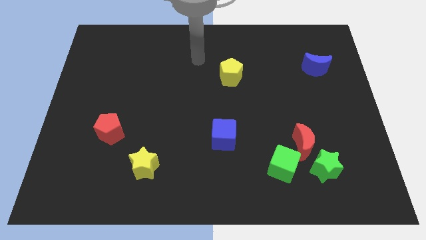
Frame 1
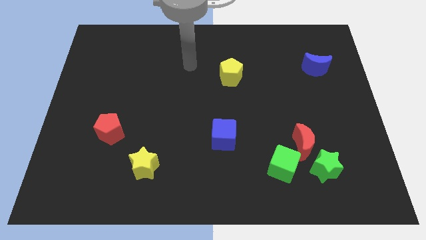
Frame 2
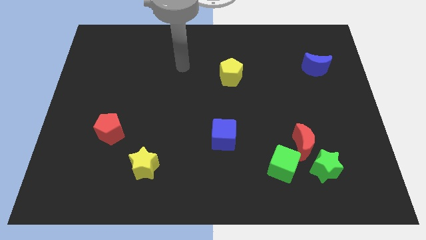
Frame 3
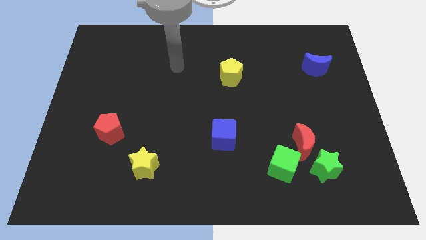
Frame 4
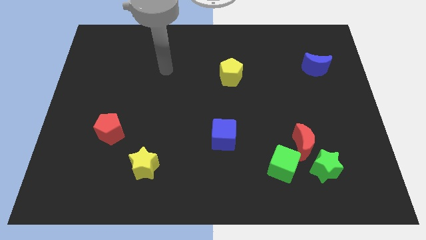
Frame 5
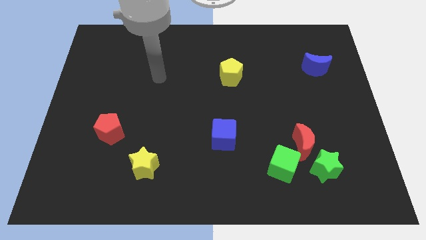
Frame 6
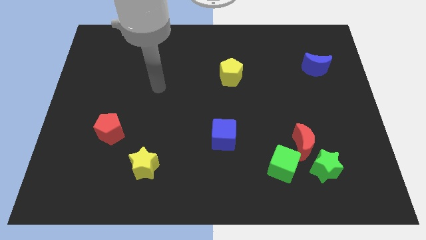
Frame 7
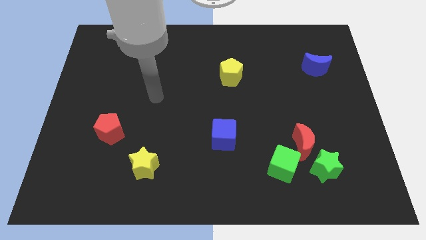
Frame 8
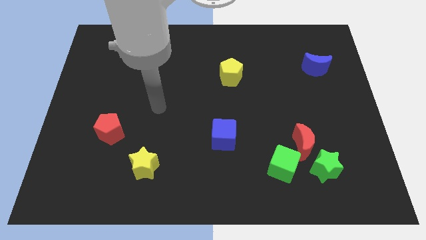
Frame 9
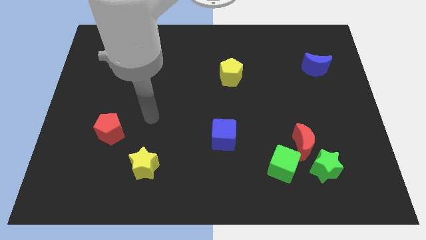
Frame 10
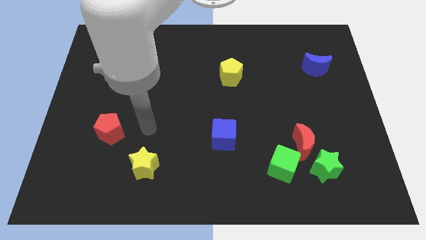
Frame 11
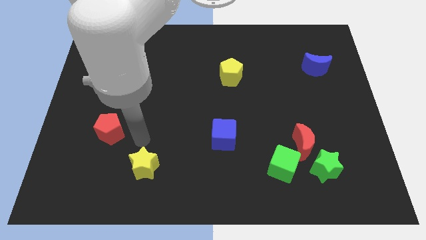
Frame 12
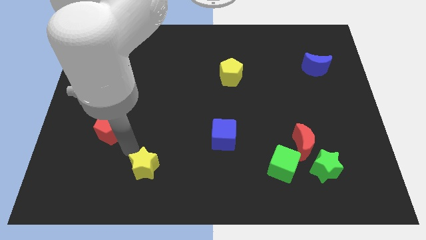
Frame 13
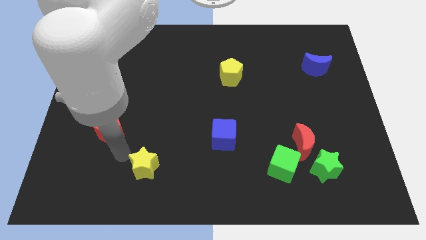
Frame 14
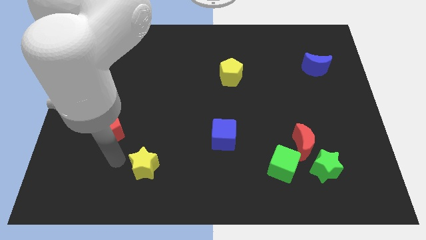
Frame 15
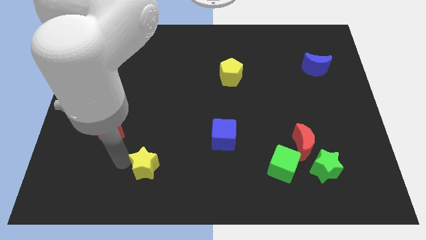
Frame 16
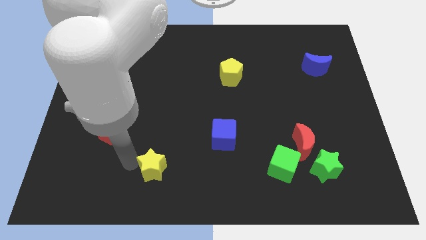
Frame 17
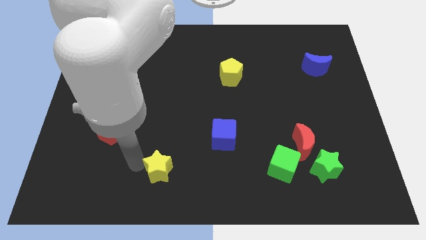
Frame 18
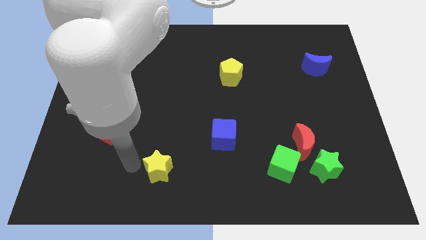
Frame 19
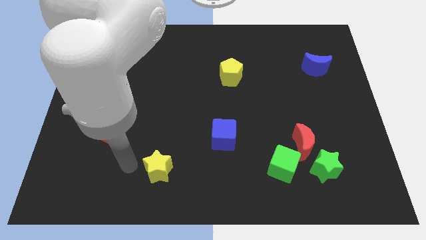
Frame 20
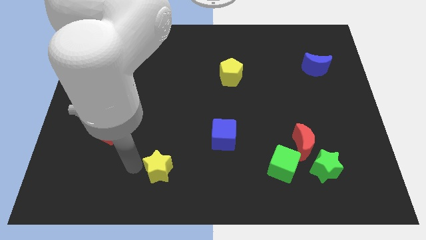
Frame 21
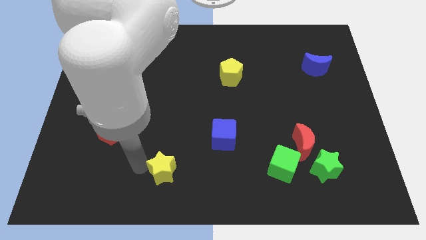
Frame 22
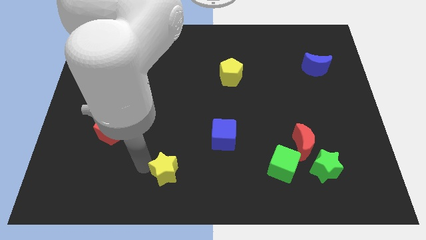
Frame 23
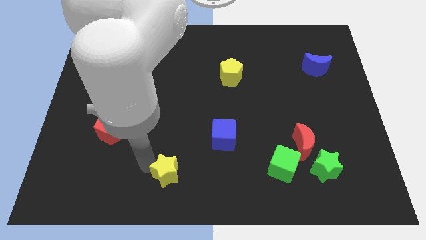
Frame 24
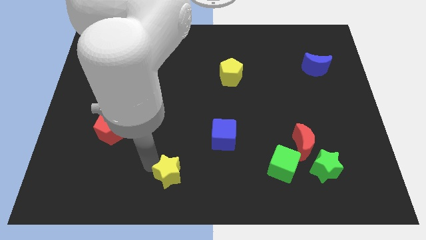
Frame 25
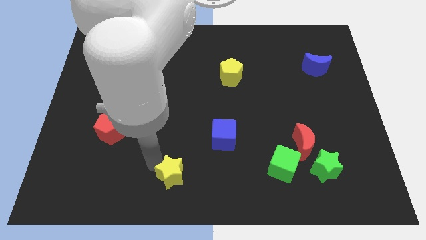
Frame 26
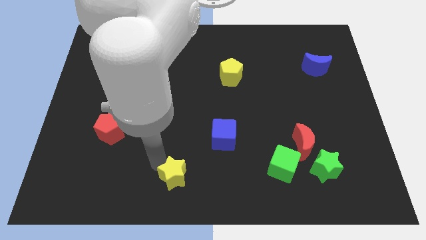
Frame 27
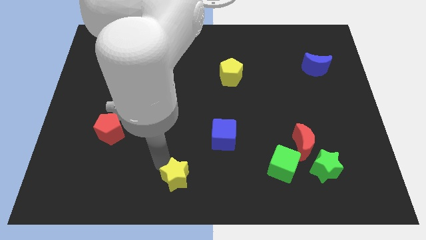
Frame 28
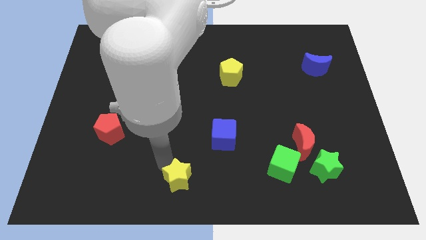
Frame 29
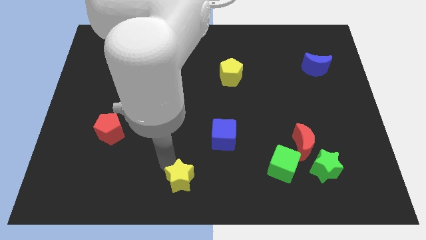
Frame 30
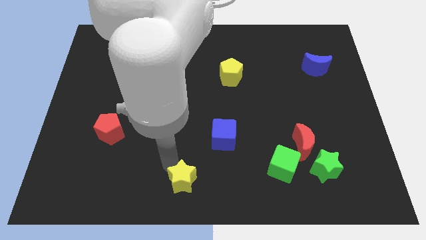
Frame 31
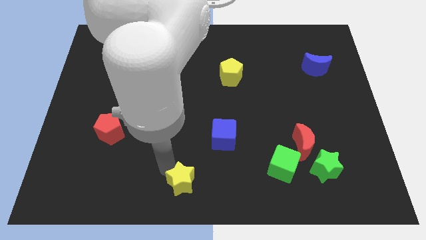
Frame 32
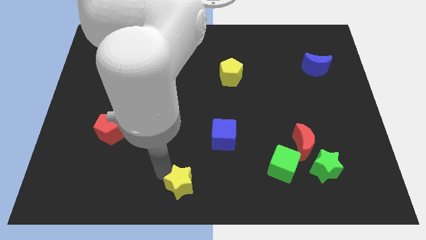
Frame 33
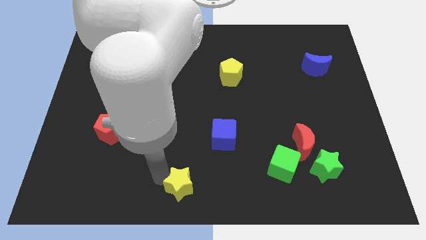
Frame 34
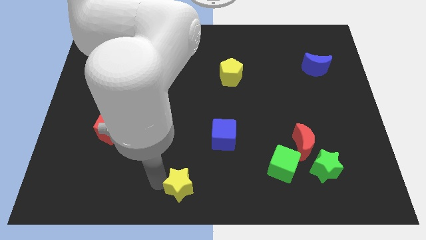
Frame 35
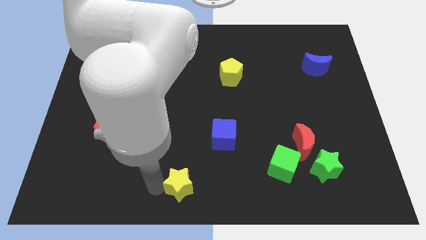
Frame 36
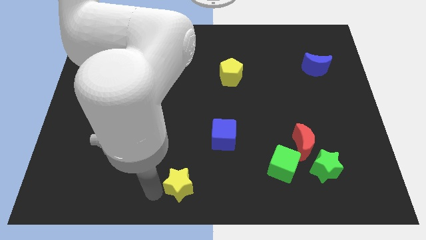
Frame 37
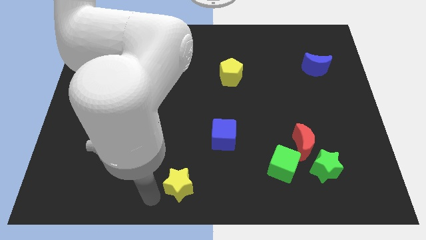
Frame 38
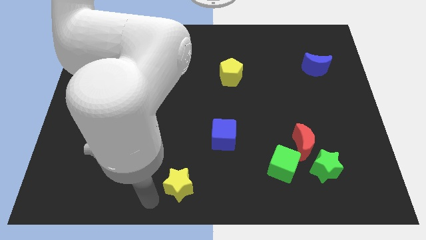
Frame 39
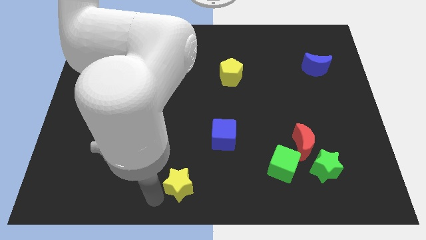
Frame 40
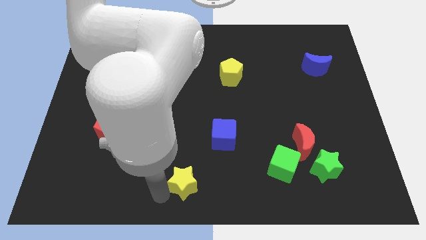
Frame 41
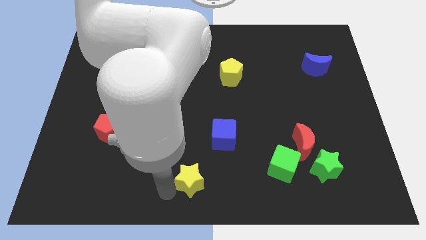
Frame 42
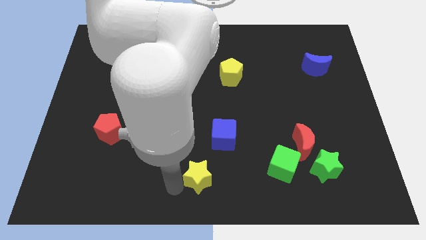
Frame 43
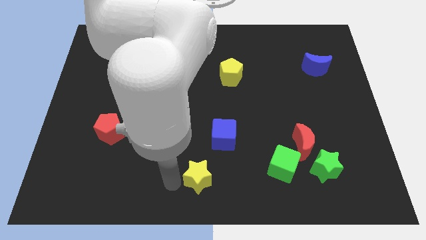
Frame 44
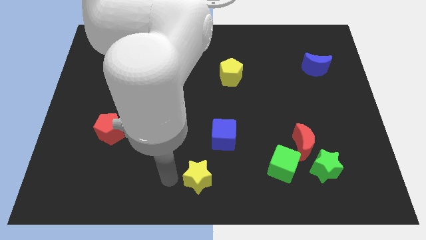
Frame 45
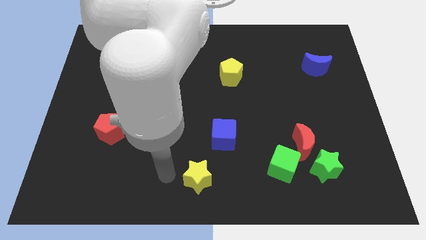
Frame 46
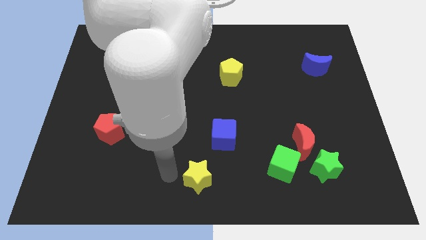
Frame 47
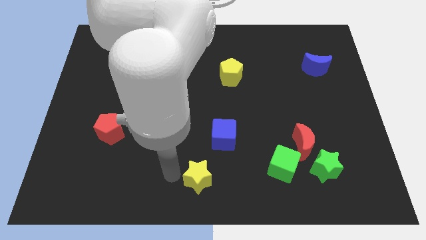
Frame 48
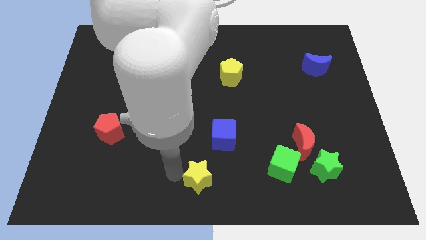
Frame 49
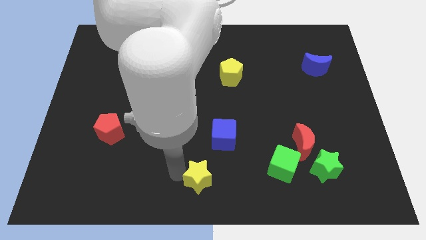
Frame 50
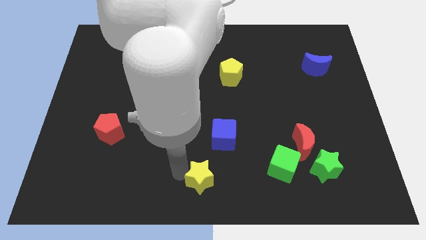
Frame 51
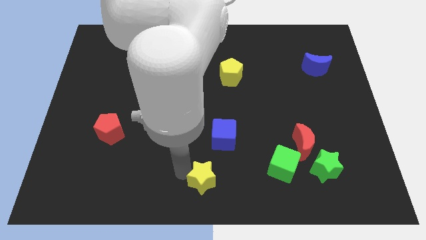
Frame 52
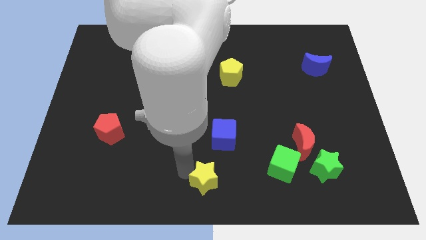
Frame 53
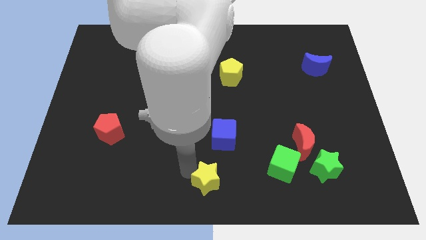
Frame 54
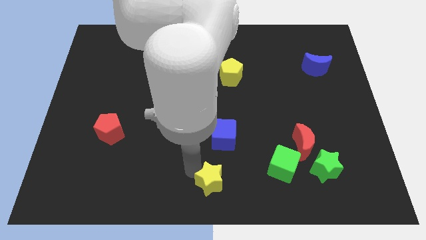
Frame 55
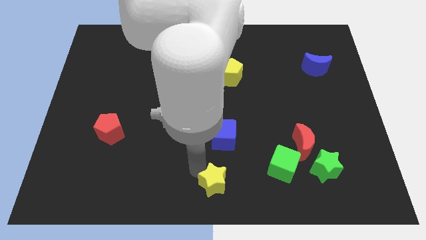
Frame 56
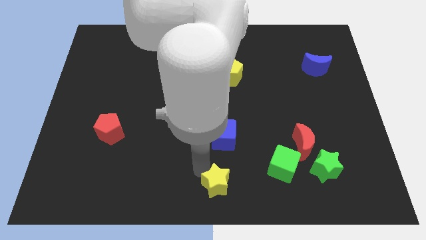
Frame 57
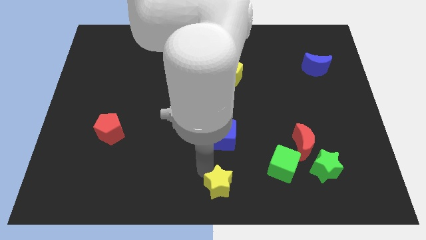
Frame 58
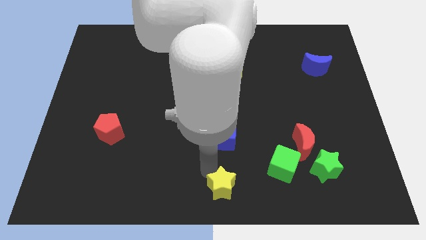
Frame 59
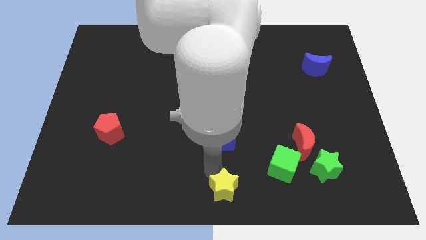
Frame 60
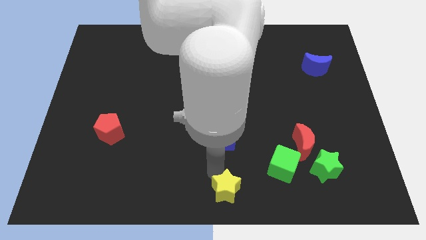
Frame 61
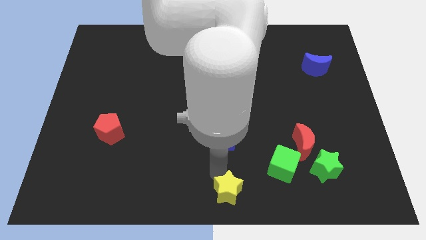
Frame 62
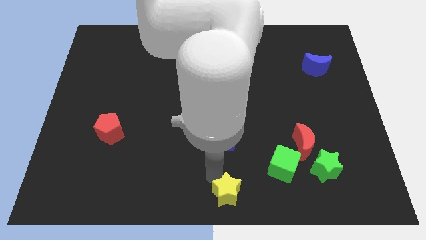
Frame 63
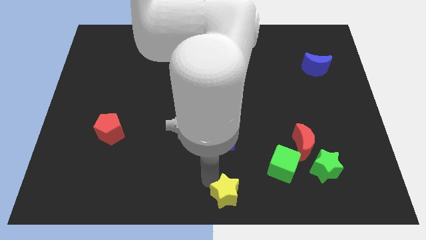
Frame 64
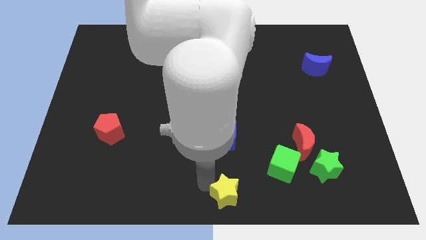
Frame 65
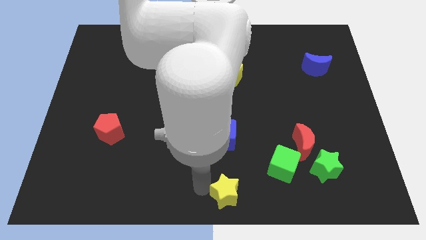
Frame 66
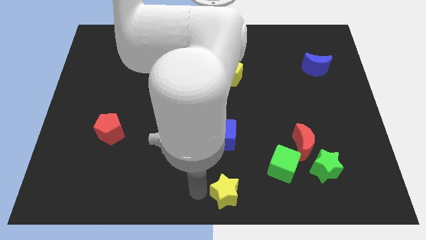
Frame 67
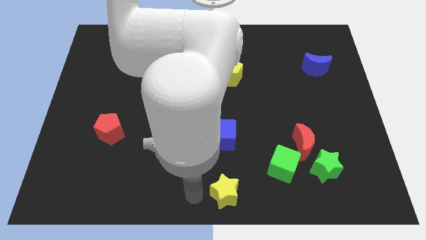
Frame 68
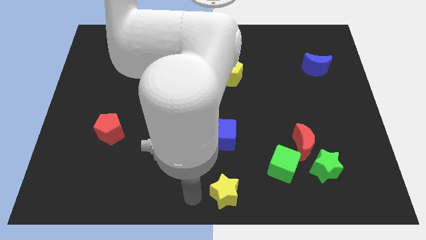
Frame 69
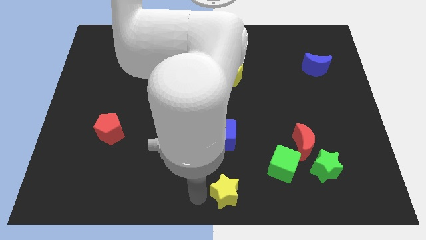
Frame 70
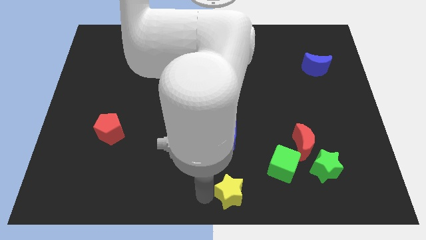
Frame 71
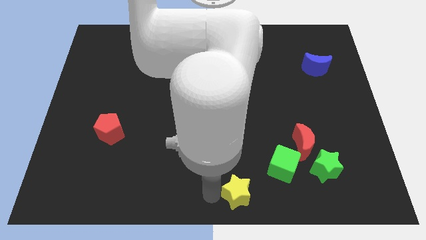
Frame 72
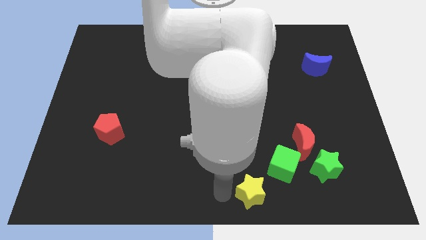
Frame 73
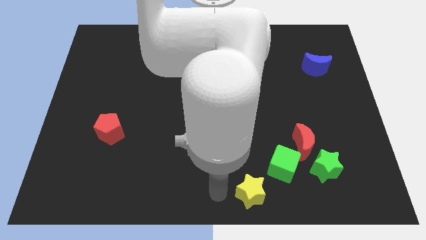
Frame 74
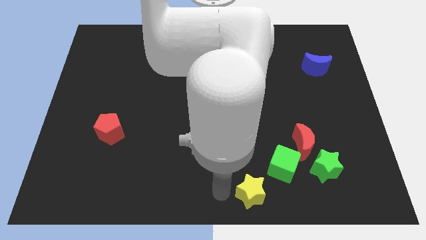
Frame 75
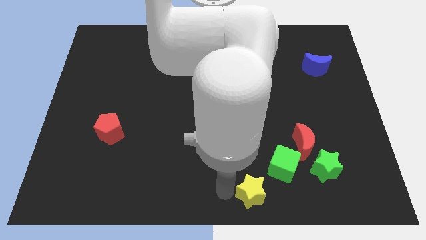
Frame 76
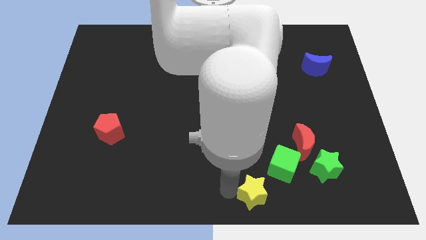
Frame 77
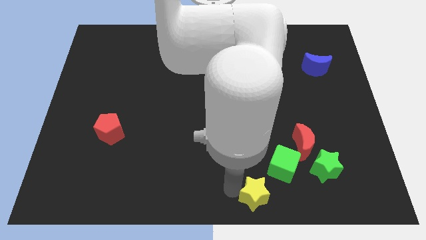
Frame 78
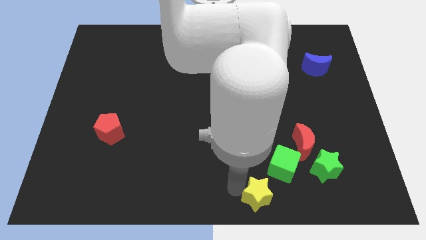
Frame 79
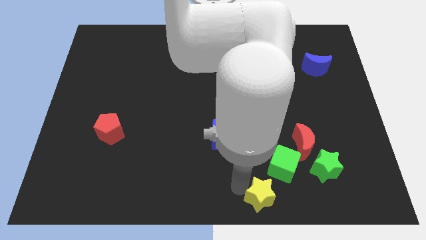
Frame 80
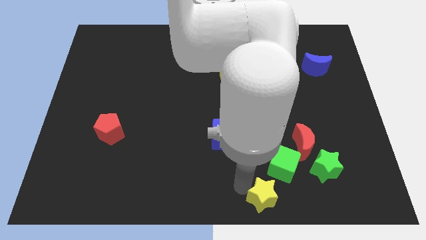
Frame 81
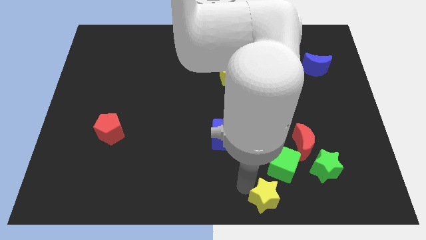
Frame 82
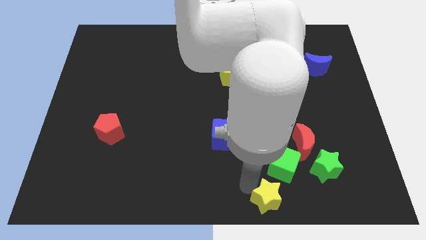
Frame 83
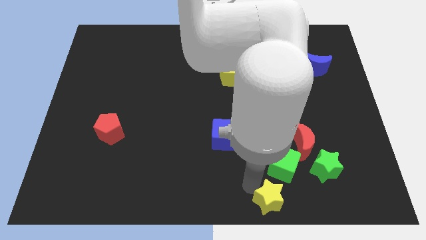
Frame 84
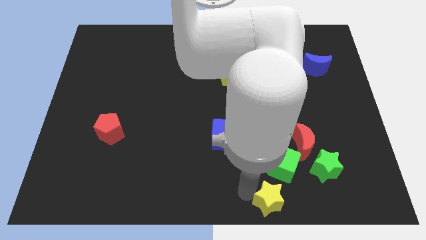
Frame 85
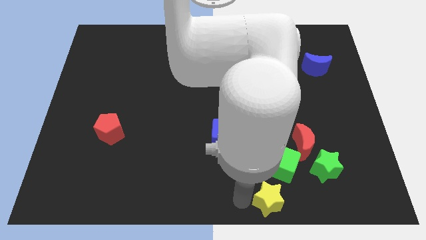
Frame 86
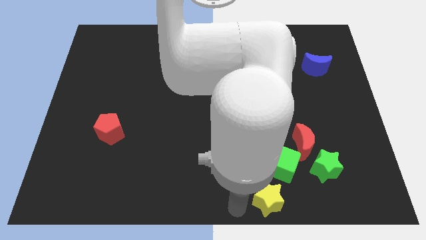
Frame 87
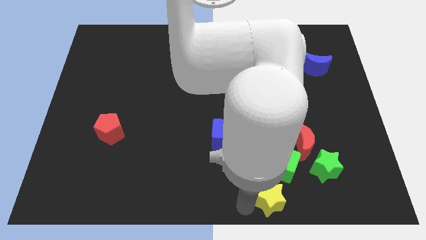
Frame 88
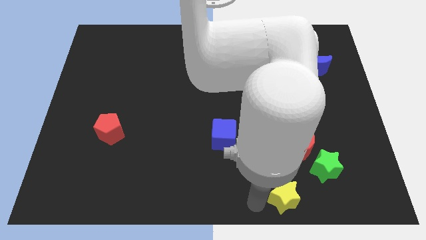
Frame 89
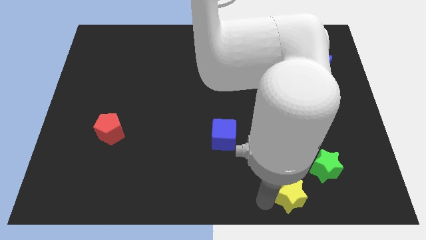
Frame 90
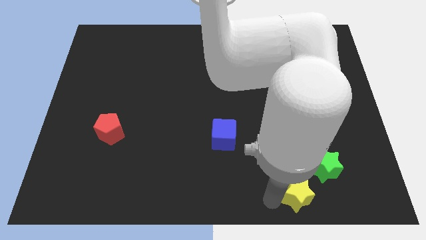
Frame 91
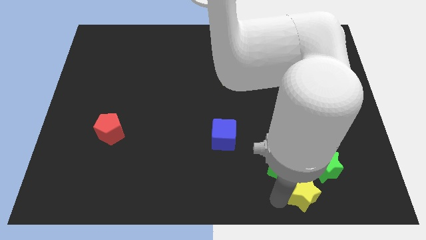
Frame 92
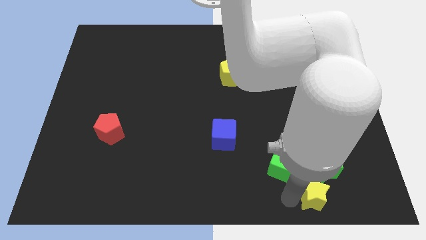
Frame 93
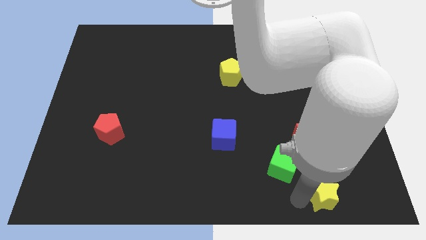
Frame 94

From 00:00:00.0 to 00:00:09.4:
move the yellow star close to the green star
